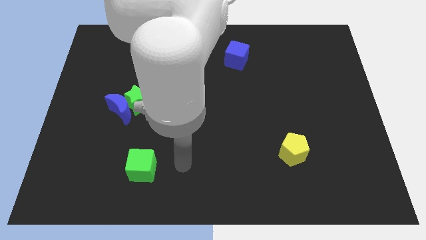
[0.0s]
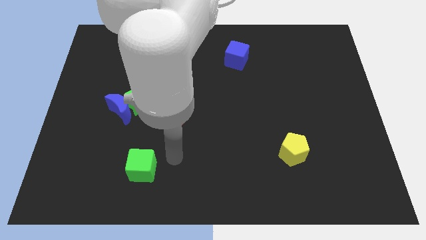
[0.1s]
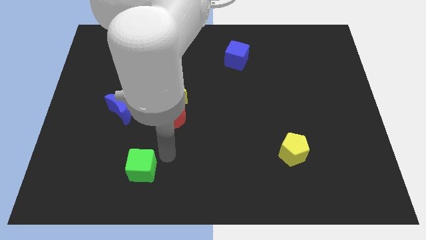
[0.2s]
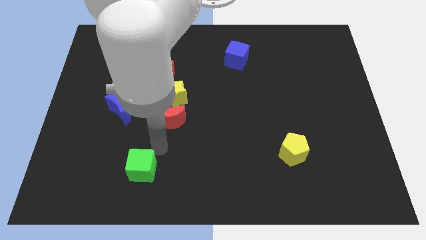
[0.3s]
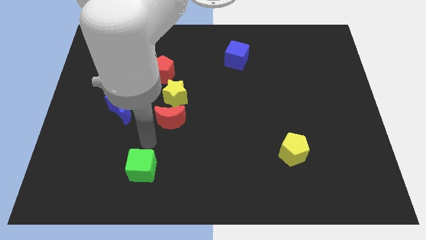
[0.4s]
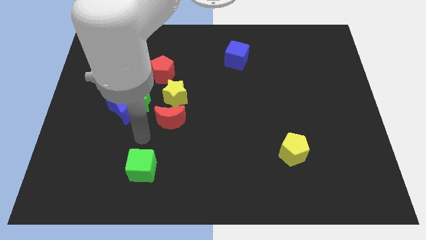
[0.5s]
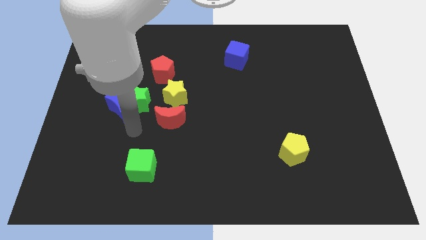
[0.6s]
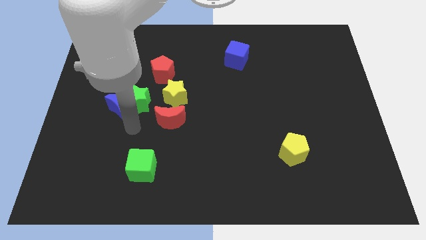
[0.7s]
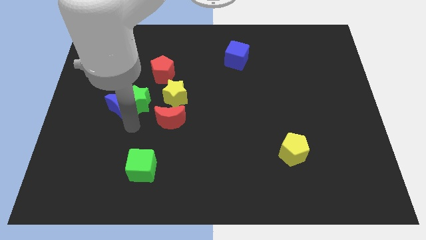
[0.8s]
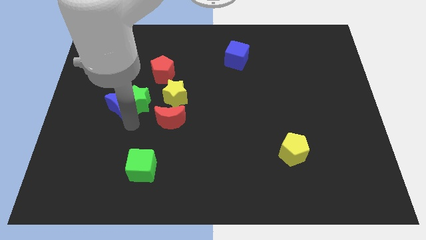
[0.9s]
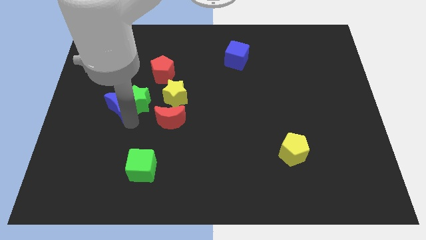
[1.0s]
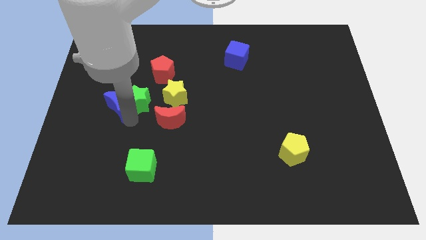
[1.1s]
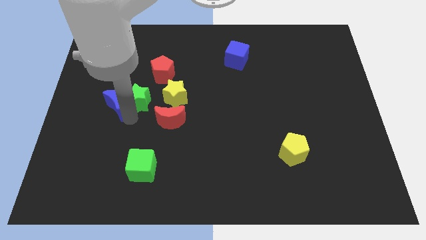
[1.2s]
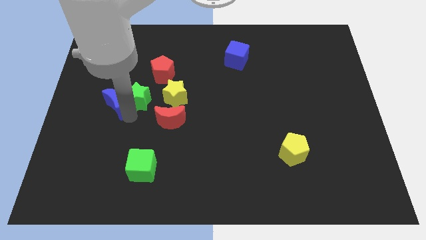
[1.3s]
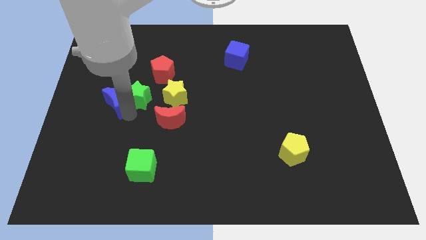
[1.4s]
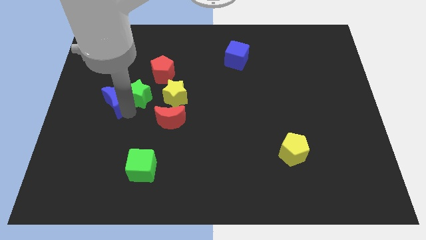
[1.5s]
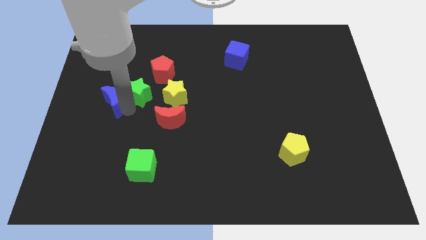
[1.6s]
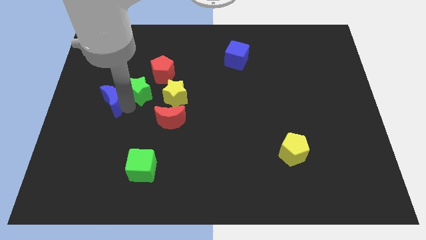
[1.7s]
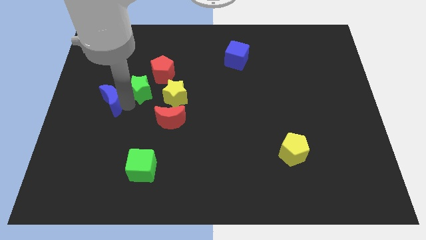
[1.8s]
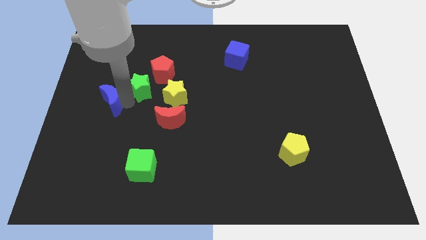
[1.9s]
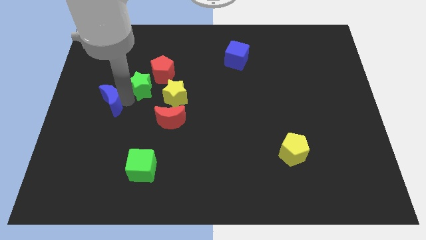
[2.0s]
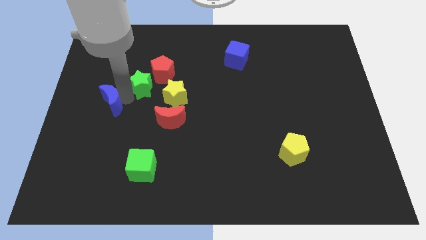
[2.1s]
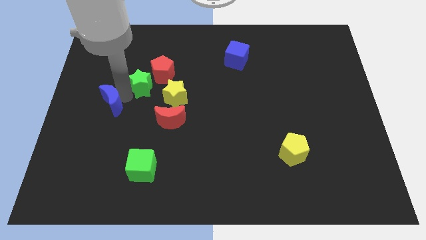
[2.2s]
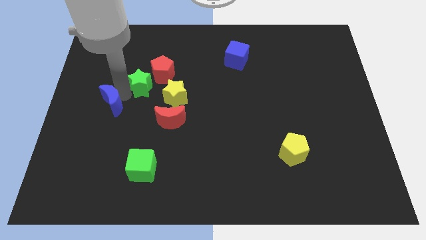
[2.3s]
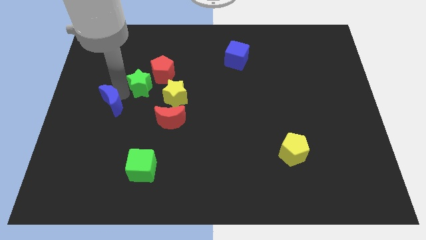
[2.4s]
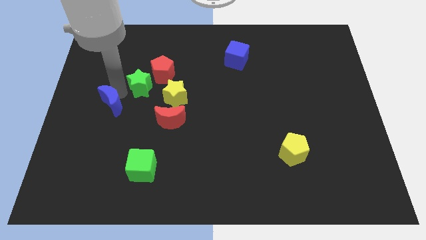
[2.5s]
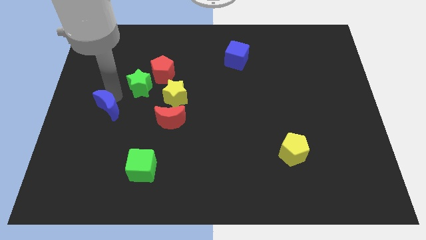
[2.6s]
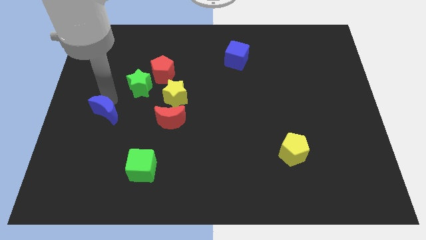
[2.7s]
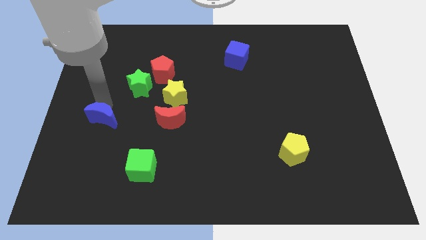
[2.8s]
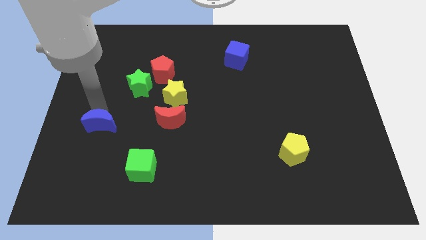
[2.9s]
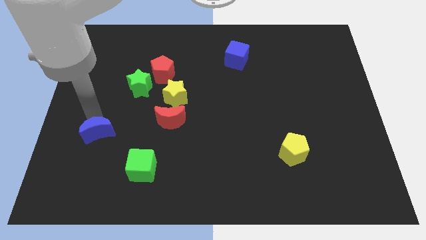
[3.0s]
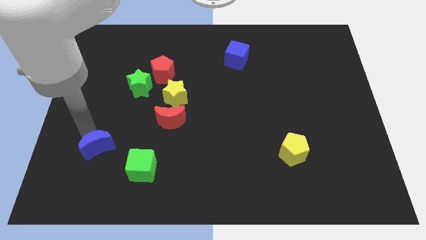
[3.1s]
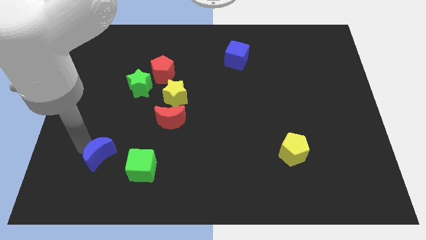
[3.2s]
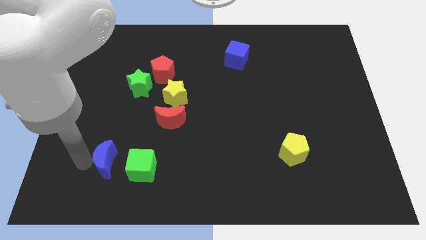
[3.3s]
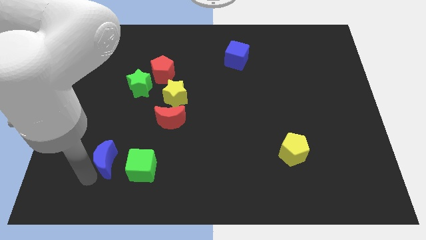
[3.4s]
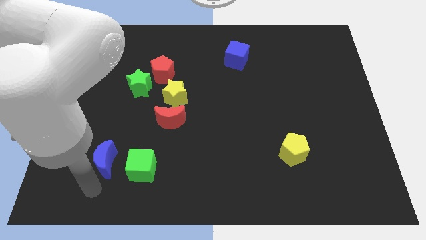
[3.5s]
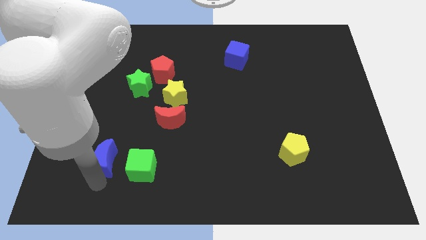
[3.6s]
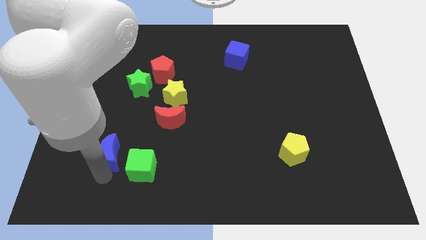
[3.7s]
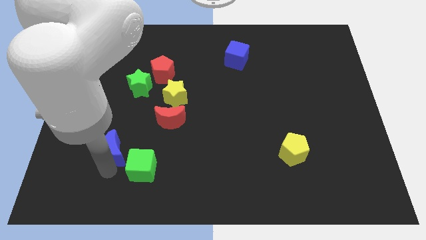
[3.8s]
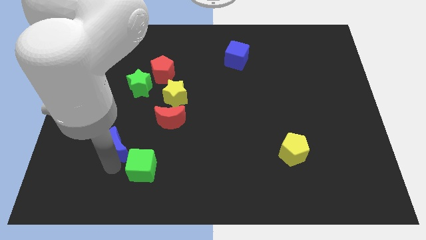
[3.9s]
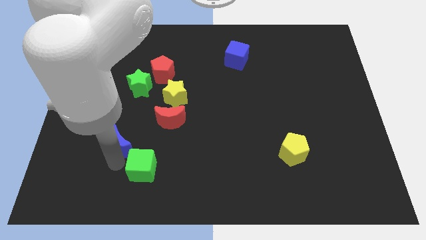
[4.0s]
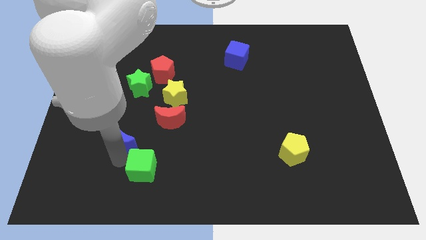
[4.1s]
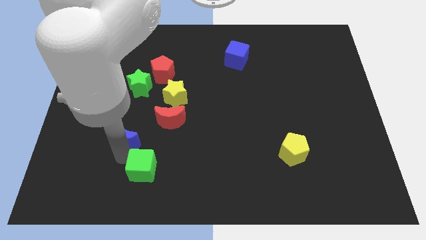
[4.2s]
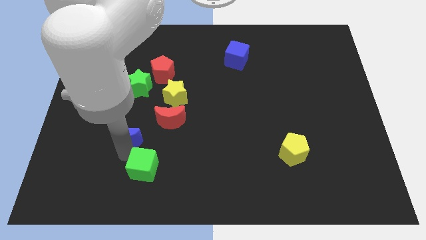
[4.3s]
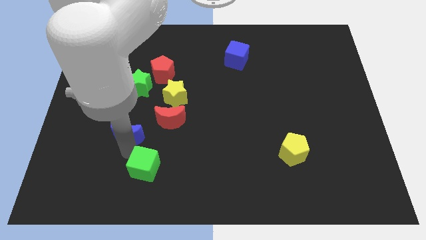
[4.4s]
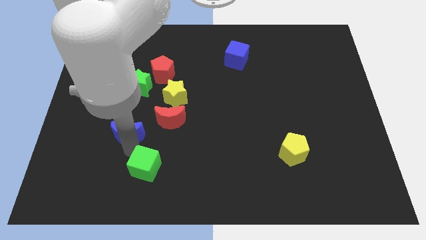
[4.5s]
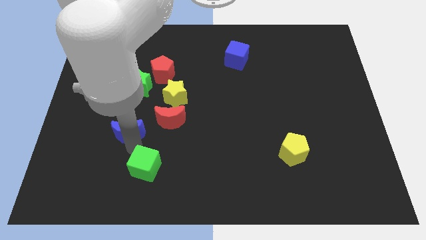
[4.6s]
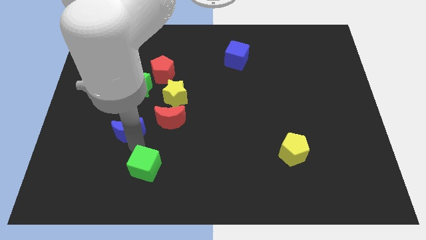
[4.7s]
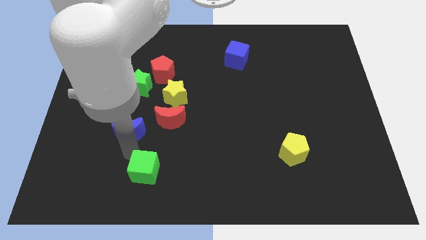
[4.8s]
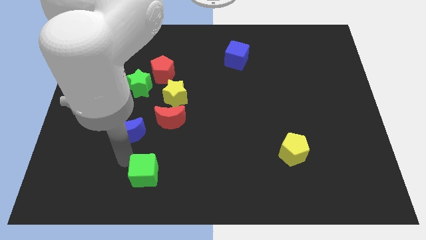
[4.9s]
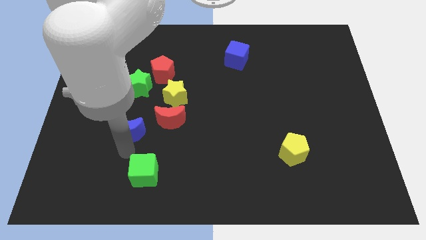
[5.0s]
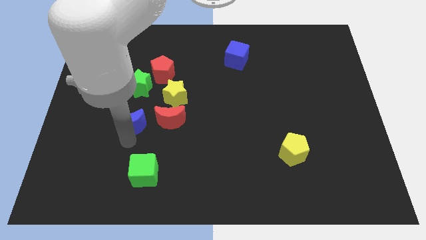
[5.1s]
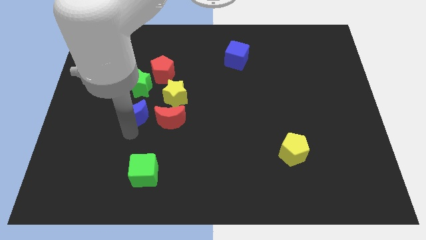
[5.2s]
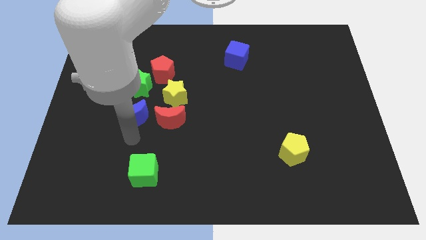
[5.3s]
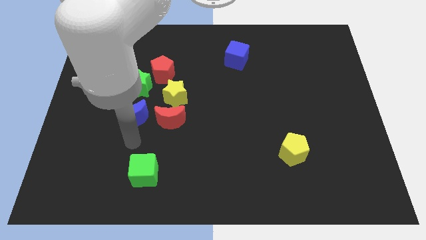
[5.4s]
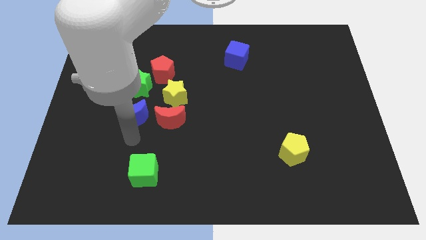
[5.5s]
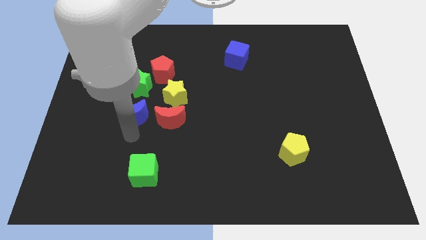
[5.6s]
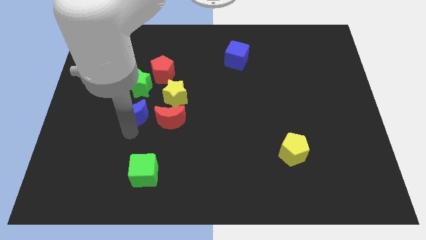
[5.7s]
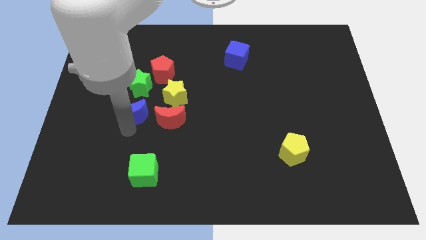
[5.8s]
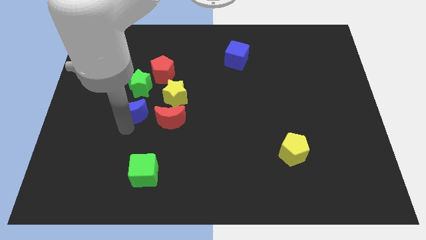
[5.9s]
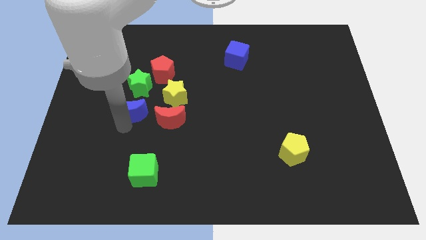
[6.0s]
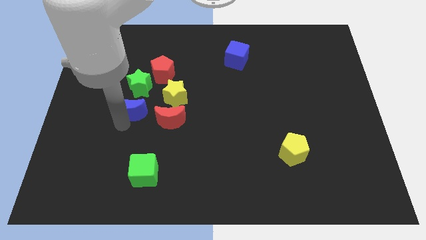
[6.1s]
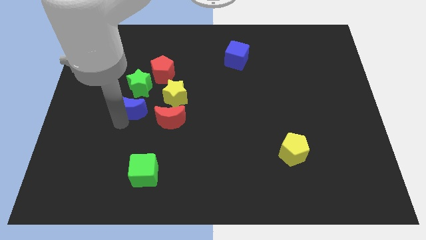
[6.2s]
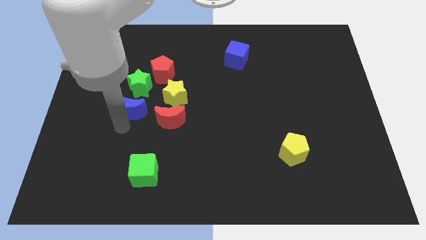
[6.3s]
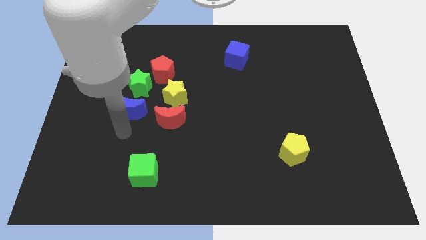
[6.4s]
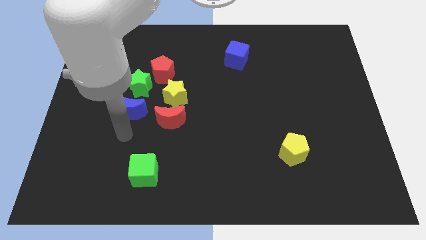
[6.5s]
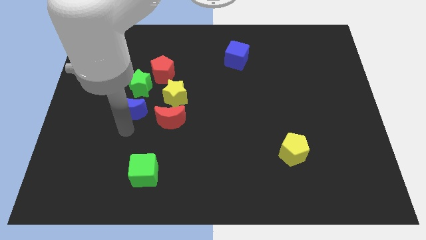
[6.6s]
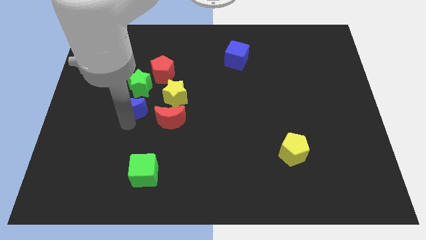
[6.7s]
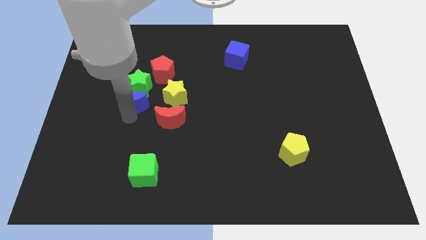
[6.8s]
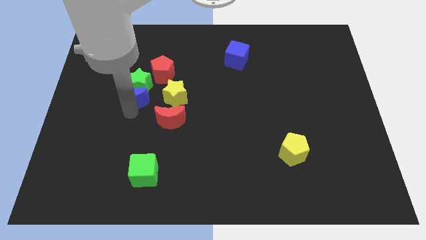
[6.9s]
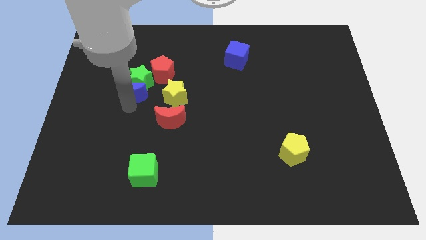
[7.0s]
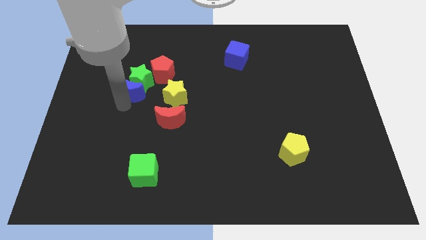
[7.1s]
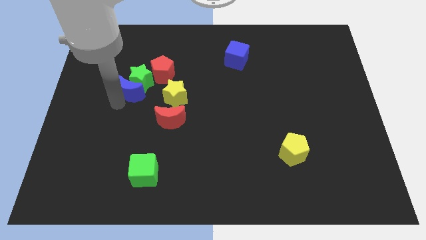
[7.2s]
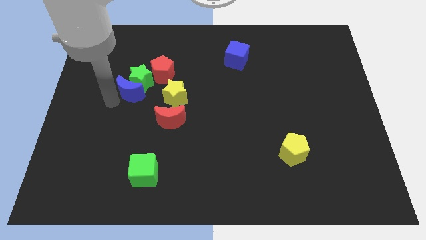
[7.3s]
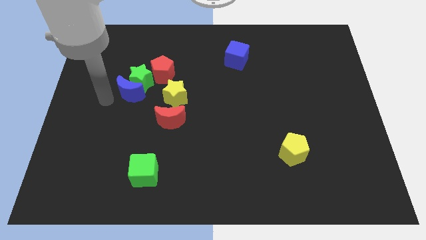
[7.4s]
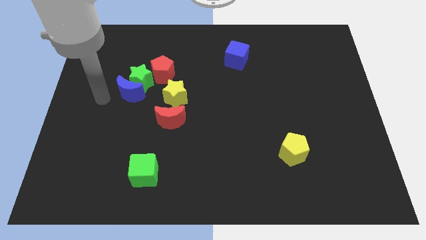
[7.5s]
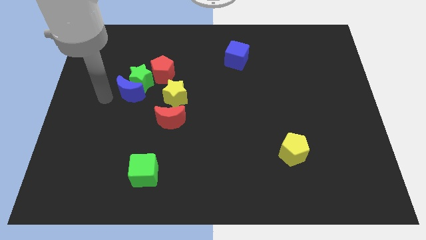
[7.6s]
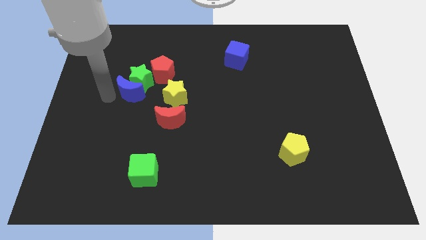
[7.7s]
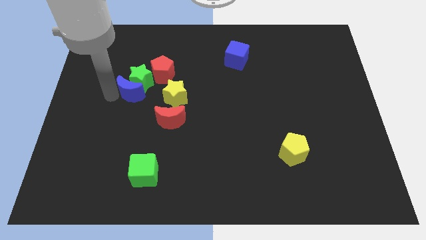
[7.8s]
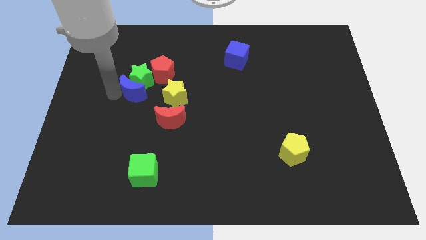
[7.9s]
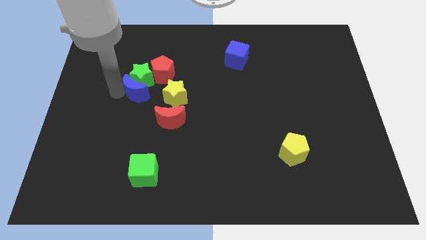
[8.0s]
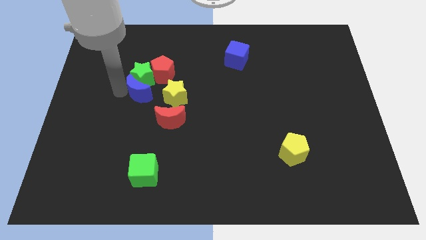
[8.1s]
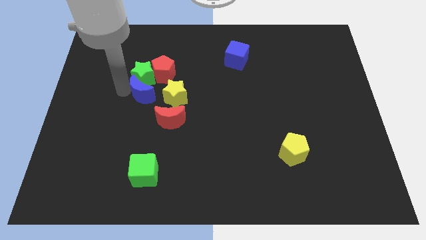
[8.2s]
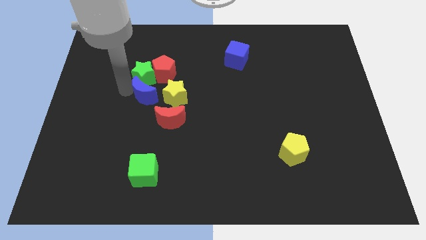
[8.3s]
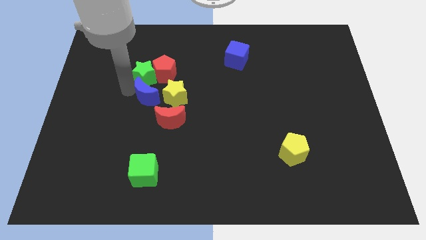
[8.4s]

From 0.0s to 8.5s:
push the blue moon upwards and then to the right a little
